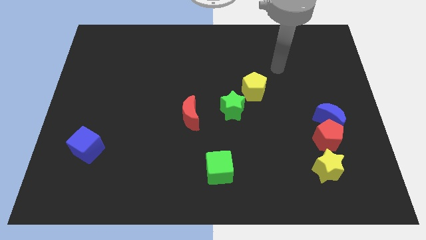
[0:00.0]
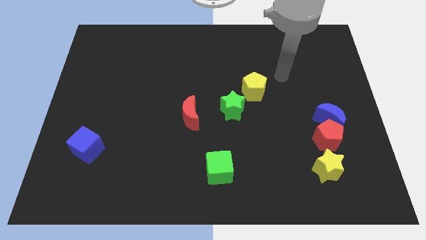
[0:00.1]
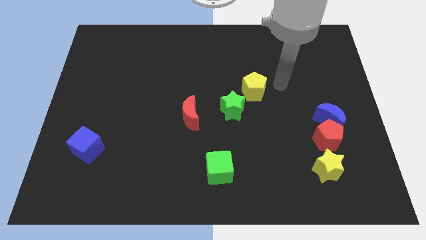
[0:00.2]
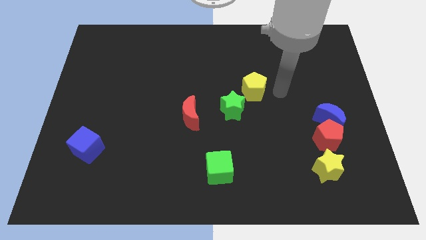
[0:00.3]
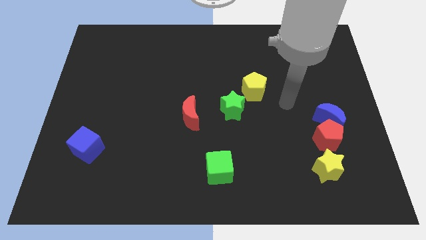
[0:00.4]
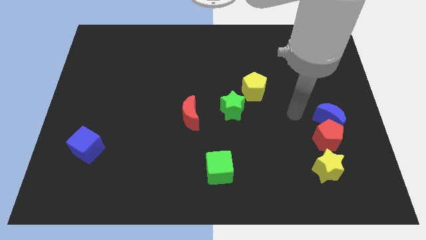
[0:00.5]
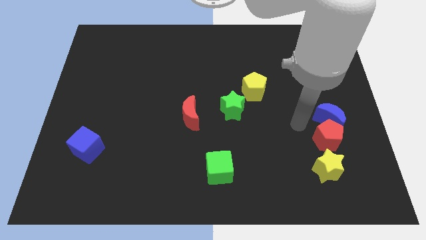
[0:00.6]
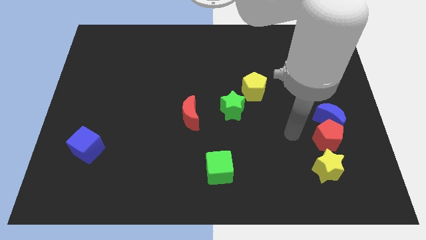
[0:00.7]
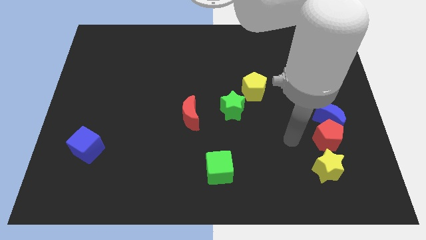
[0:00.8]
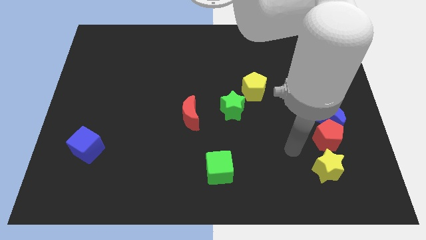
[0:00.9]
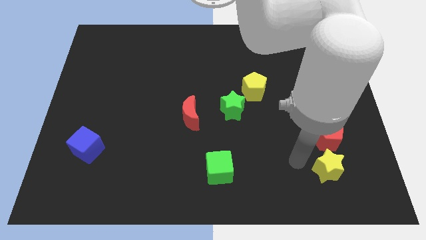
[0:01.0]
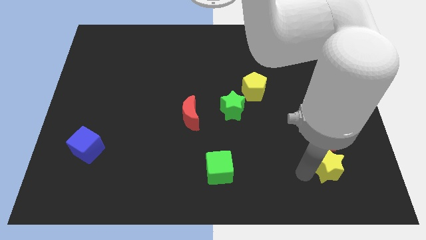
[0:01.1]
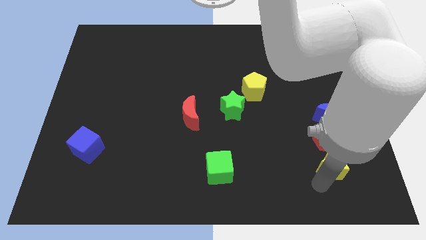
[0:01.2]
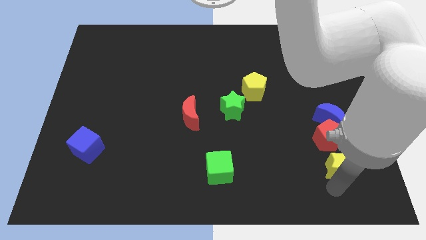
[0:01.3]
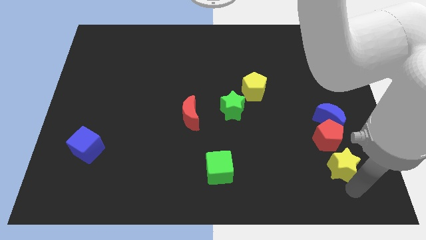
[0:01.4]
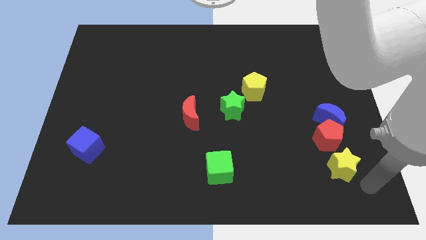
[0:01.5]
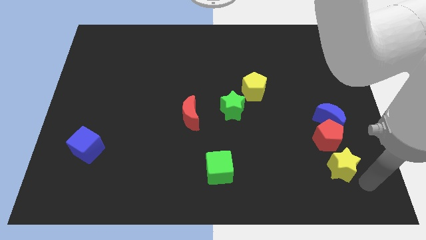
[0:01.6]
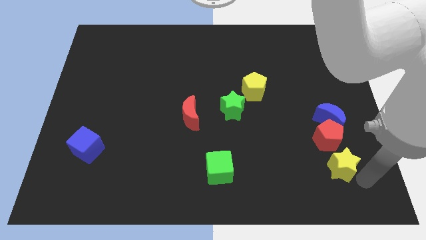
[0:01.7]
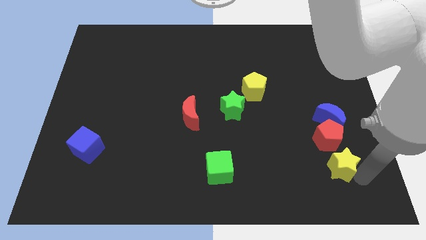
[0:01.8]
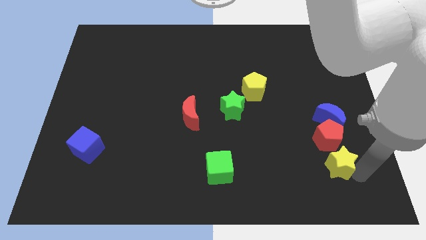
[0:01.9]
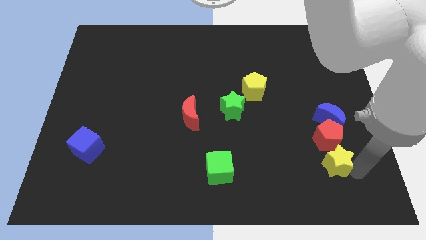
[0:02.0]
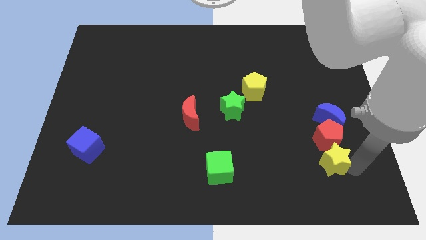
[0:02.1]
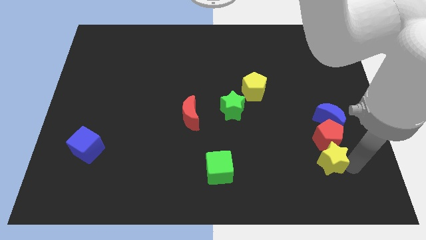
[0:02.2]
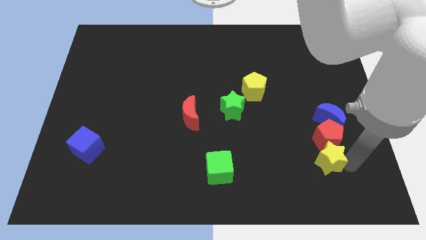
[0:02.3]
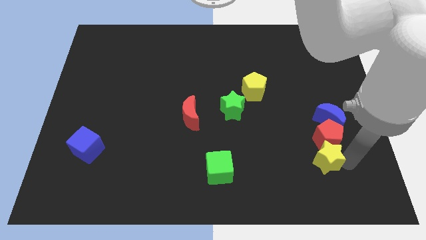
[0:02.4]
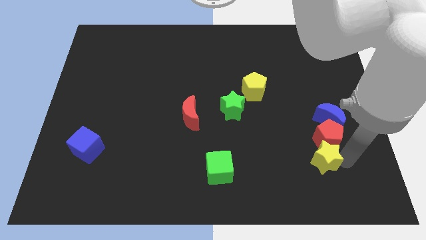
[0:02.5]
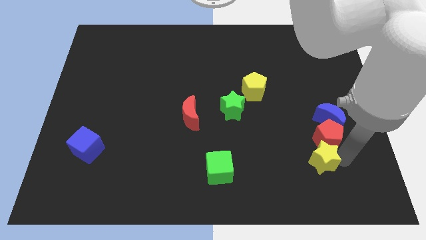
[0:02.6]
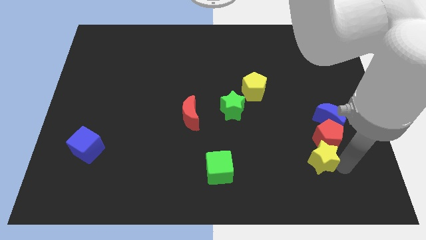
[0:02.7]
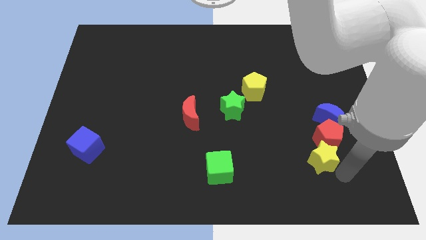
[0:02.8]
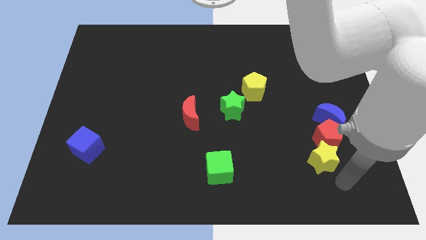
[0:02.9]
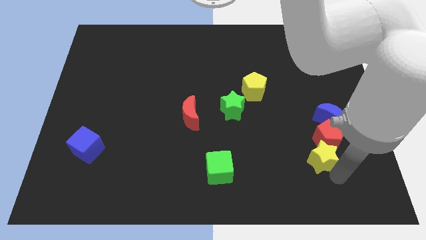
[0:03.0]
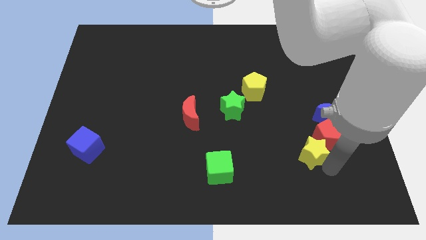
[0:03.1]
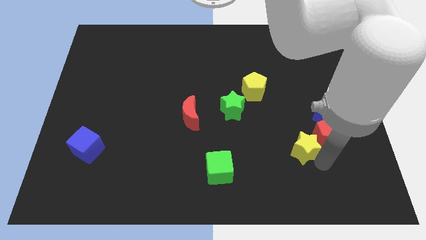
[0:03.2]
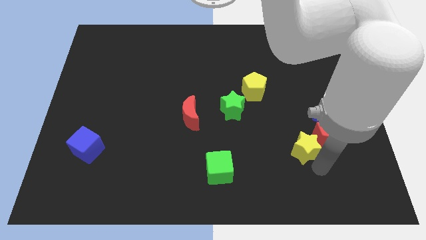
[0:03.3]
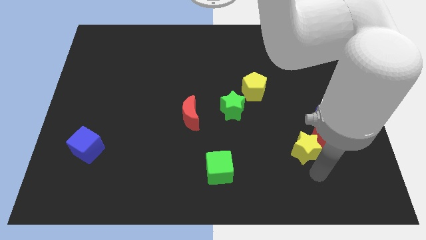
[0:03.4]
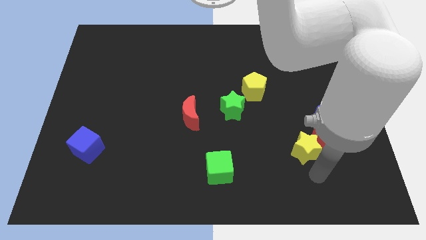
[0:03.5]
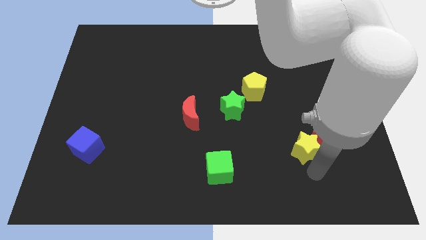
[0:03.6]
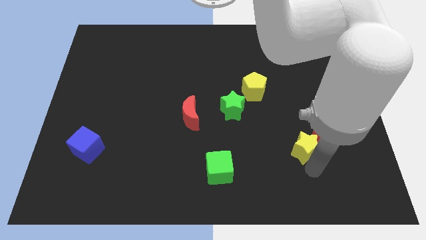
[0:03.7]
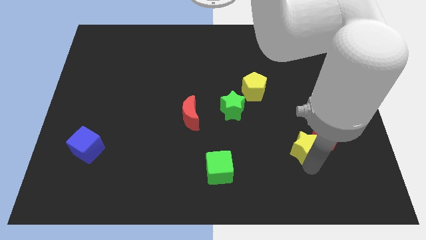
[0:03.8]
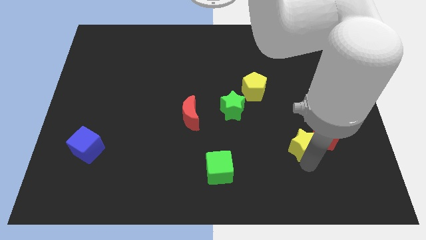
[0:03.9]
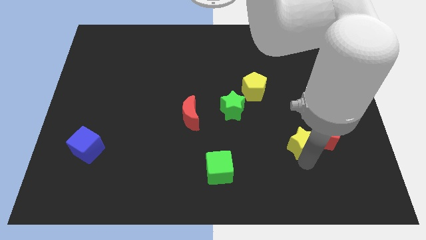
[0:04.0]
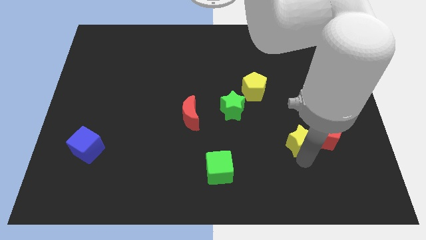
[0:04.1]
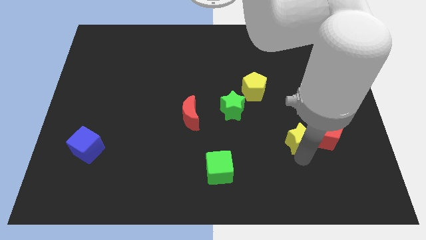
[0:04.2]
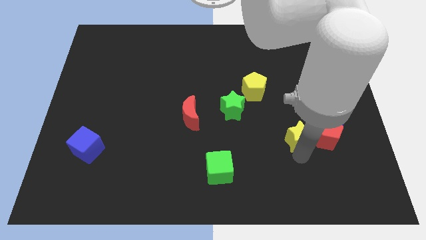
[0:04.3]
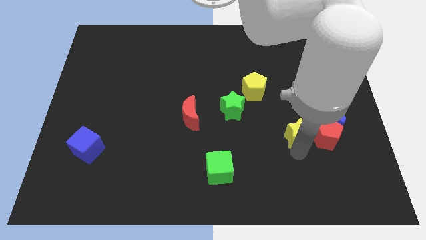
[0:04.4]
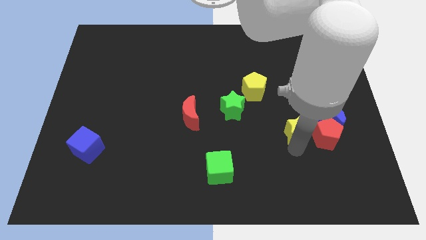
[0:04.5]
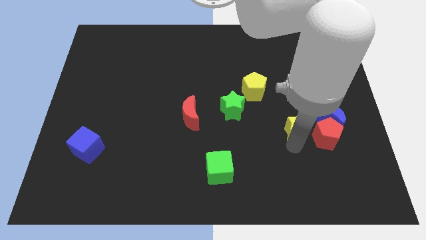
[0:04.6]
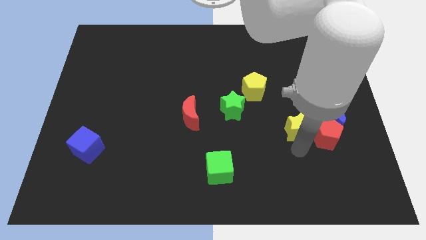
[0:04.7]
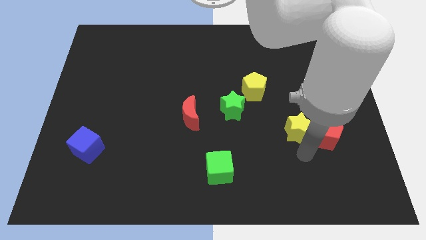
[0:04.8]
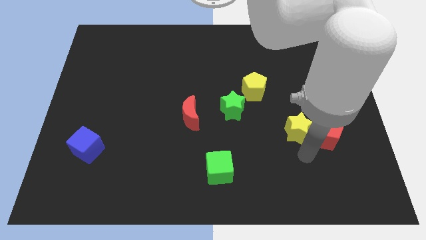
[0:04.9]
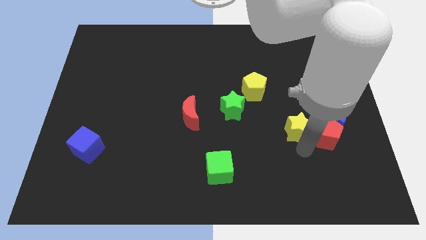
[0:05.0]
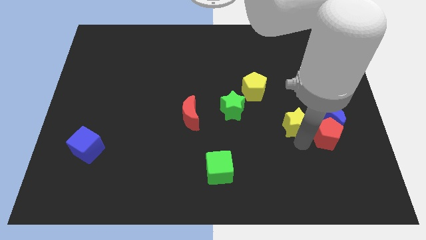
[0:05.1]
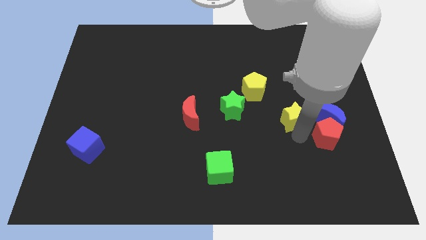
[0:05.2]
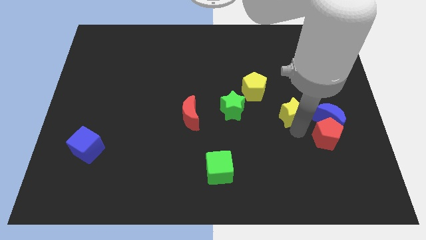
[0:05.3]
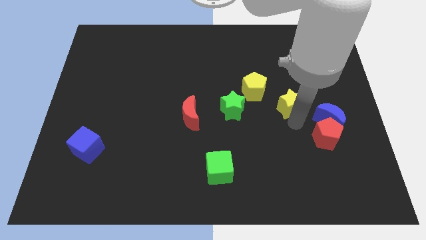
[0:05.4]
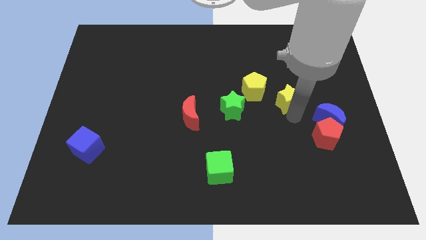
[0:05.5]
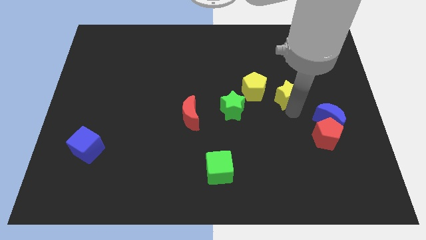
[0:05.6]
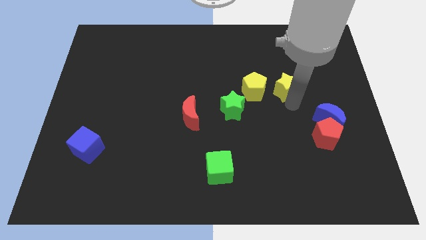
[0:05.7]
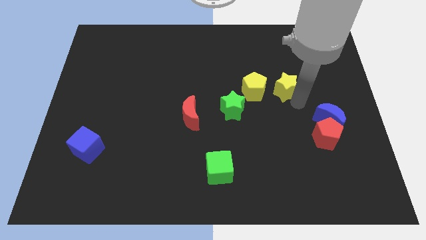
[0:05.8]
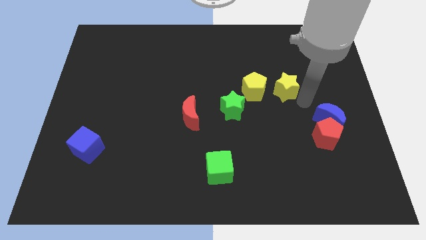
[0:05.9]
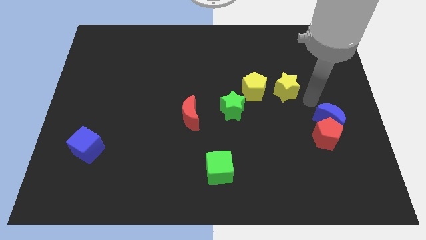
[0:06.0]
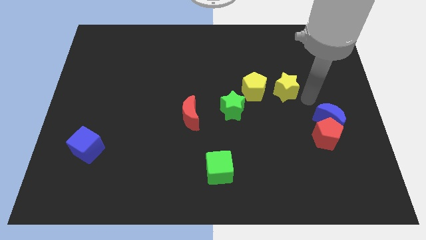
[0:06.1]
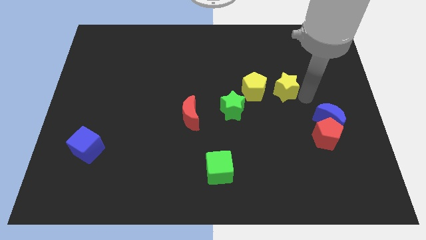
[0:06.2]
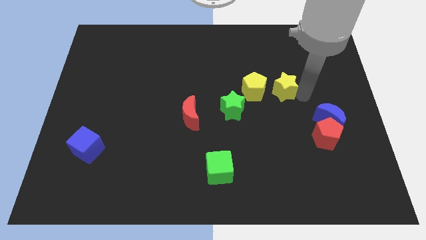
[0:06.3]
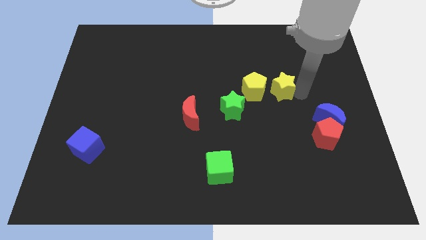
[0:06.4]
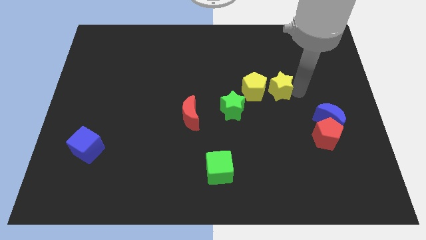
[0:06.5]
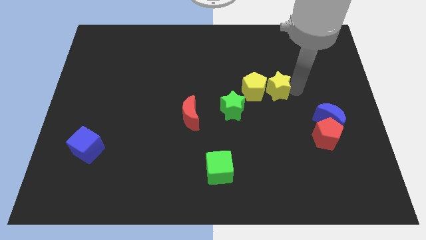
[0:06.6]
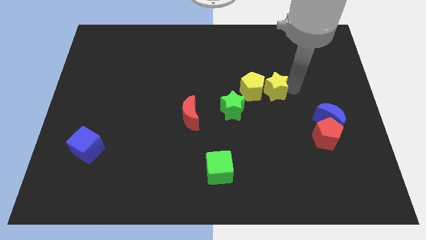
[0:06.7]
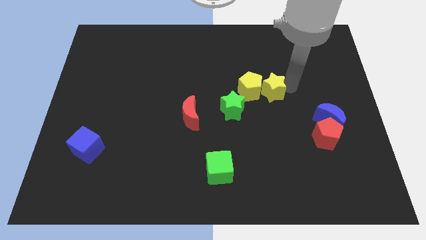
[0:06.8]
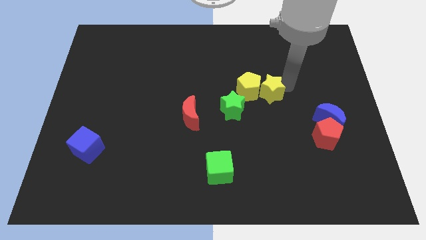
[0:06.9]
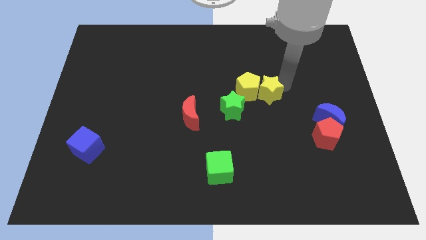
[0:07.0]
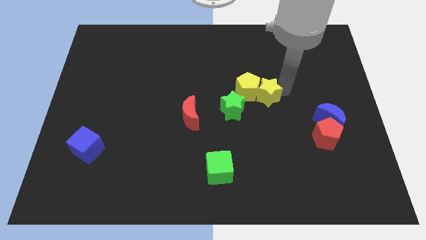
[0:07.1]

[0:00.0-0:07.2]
push the yellow star up and to the left

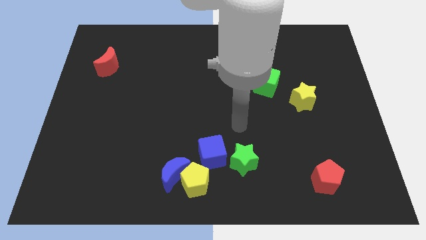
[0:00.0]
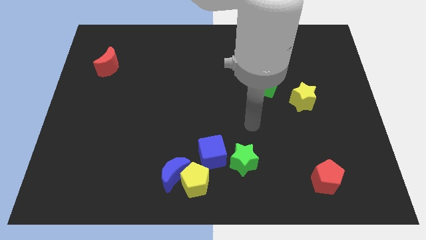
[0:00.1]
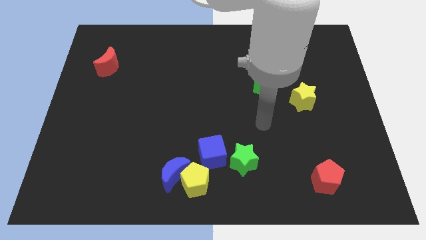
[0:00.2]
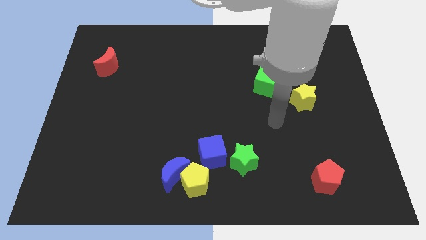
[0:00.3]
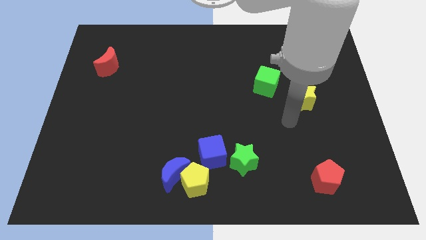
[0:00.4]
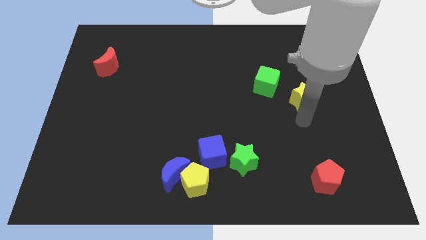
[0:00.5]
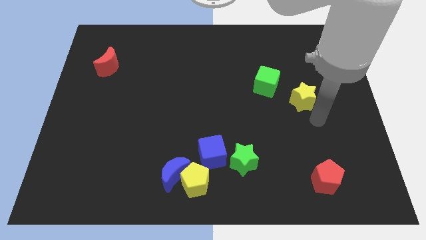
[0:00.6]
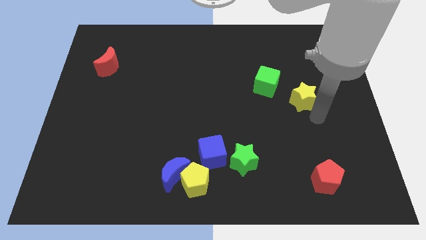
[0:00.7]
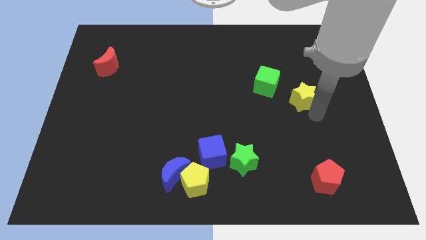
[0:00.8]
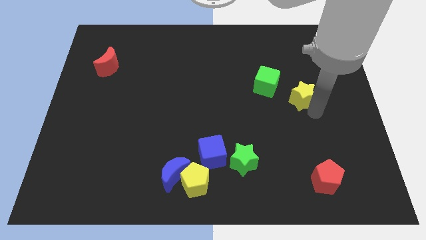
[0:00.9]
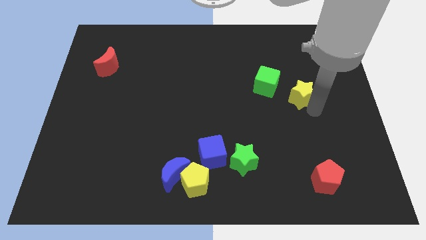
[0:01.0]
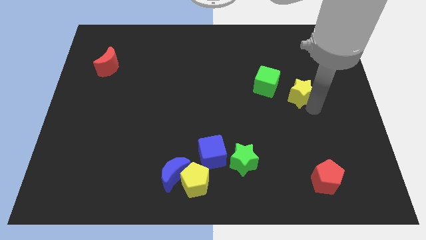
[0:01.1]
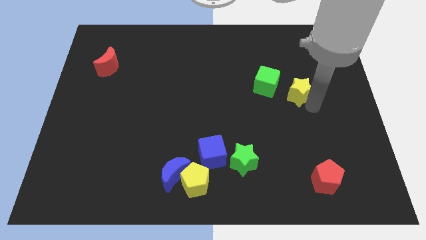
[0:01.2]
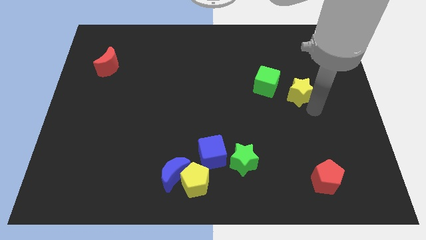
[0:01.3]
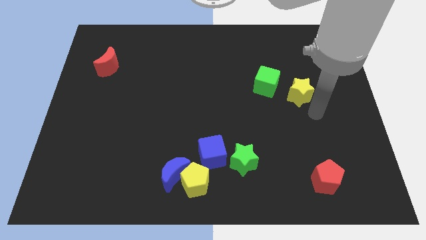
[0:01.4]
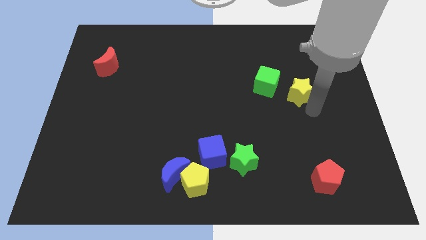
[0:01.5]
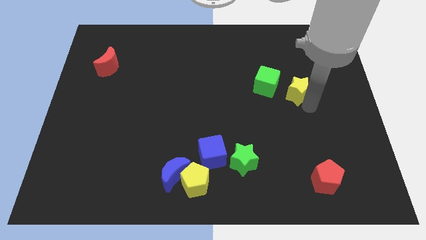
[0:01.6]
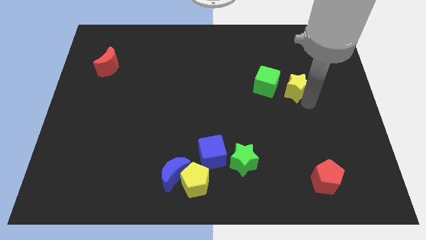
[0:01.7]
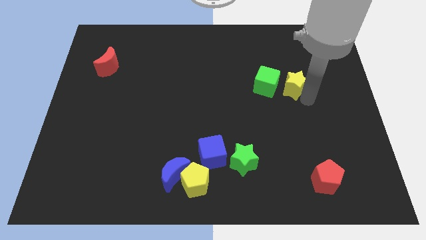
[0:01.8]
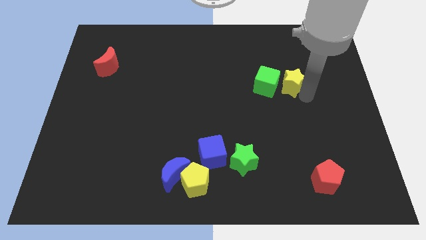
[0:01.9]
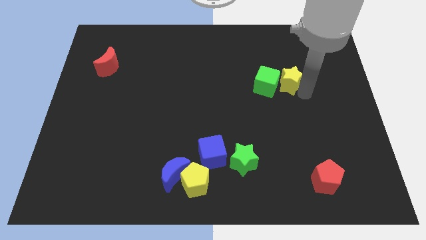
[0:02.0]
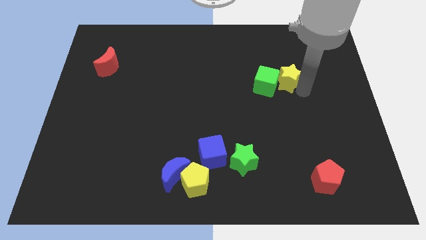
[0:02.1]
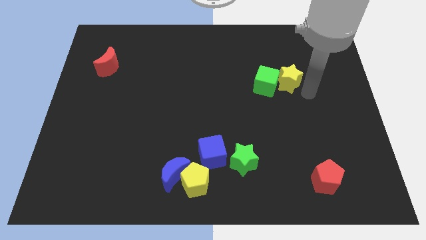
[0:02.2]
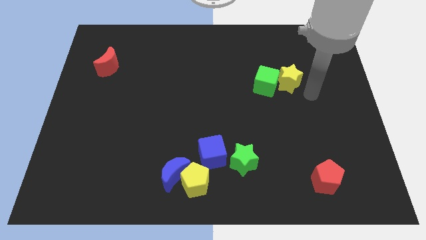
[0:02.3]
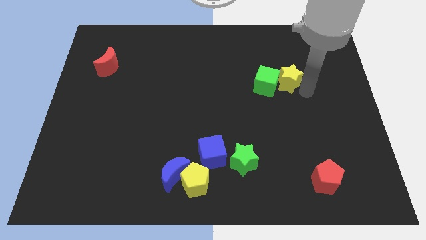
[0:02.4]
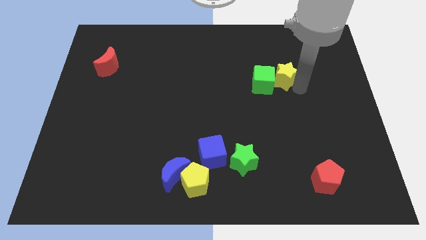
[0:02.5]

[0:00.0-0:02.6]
slightly move the yellow star diagonally upwards and left
